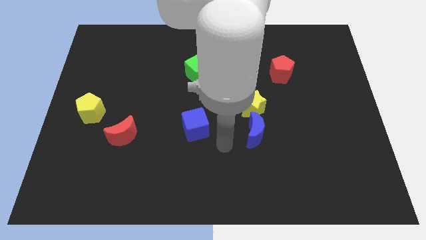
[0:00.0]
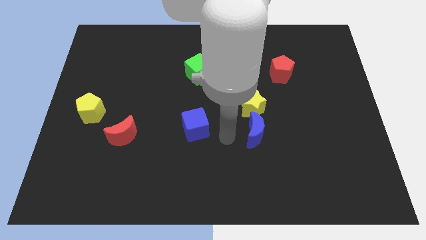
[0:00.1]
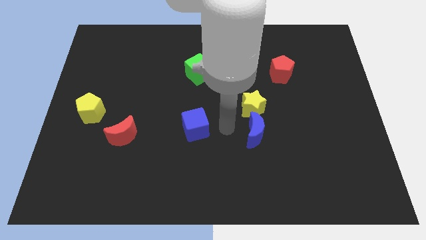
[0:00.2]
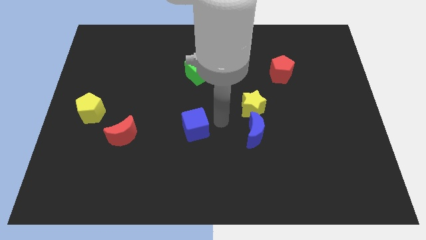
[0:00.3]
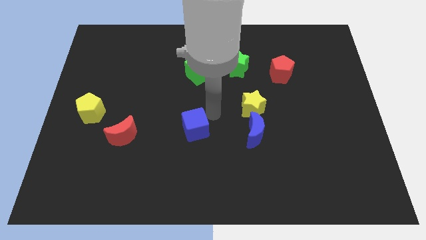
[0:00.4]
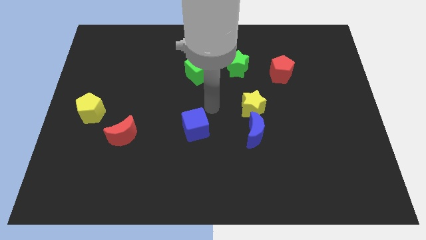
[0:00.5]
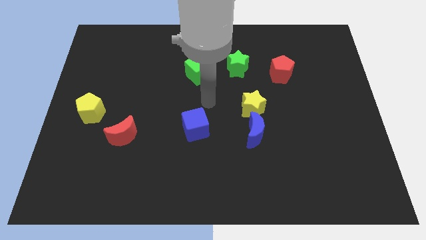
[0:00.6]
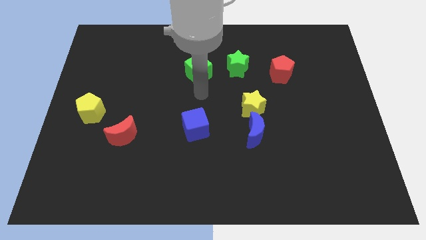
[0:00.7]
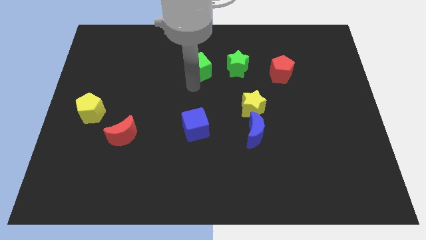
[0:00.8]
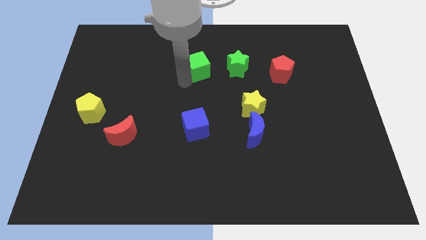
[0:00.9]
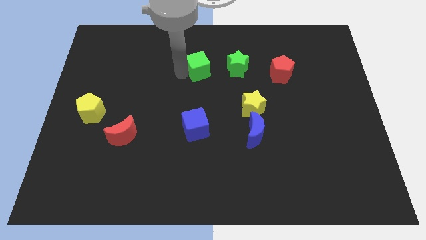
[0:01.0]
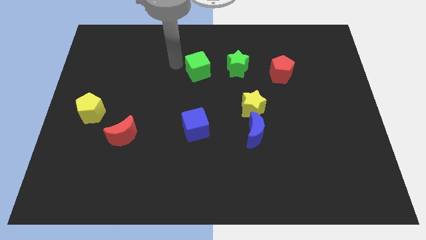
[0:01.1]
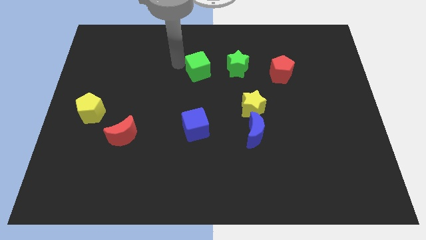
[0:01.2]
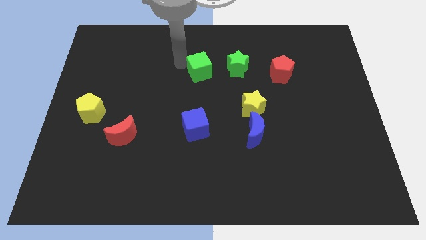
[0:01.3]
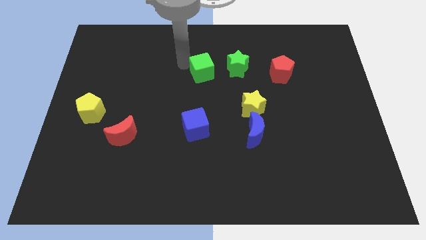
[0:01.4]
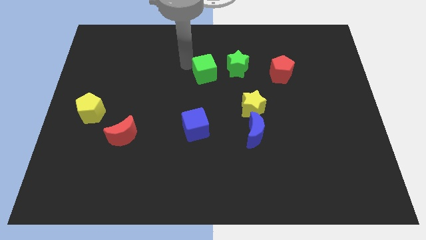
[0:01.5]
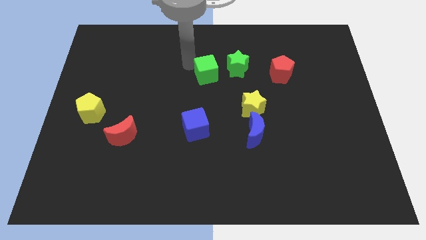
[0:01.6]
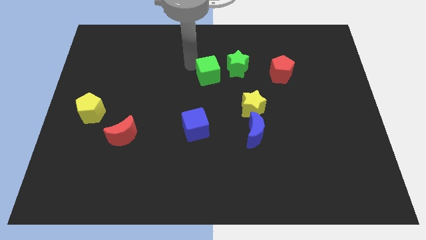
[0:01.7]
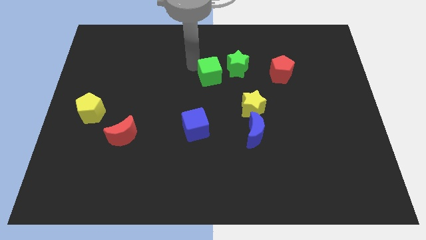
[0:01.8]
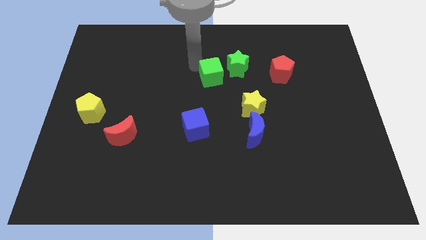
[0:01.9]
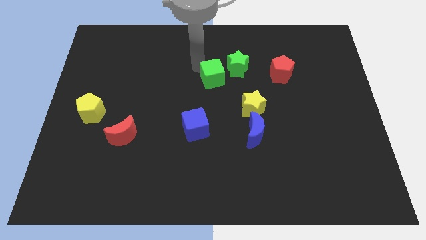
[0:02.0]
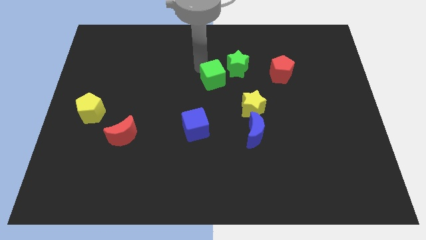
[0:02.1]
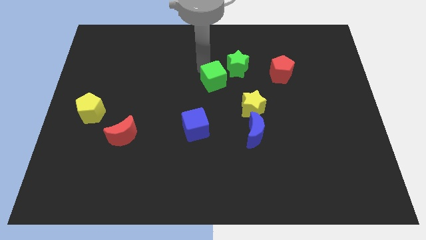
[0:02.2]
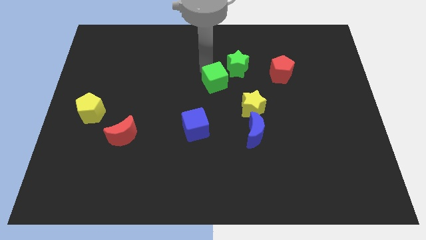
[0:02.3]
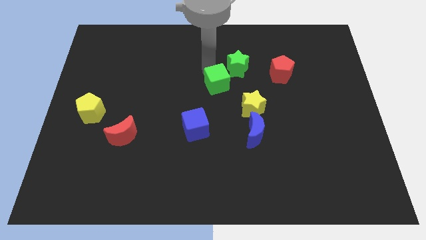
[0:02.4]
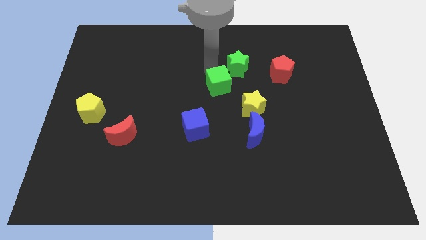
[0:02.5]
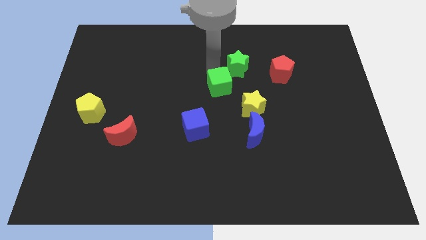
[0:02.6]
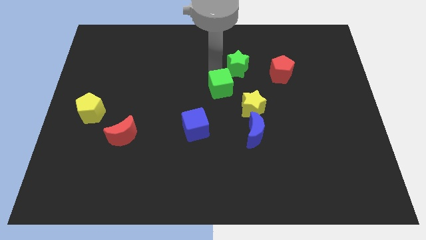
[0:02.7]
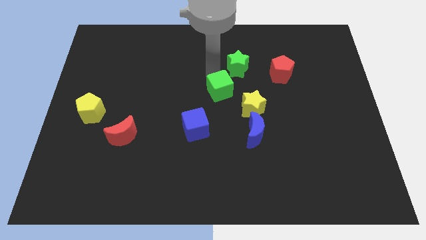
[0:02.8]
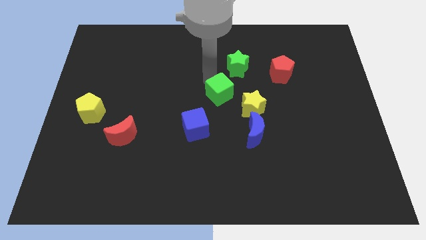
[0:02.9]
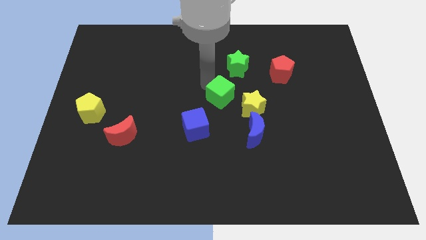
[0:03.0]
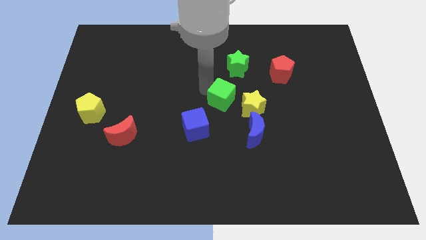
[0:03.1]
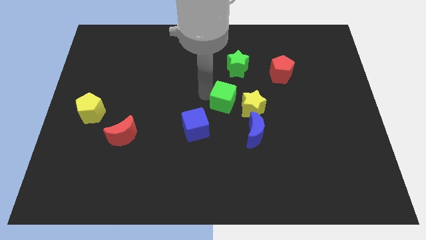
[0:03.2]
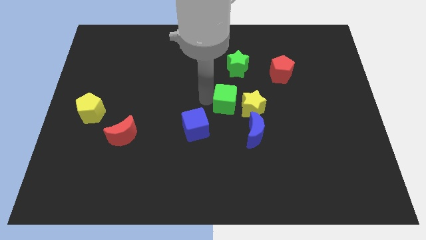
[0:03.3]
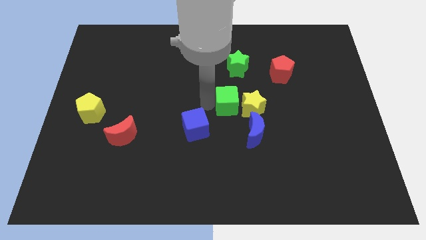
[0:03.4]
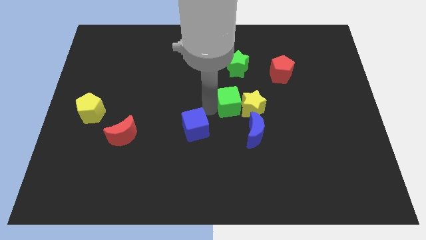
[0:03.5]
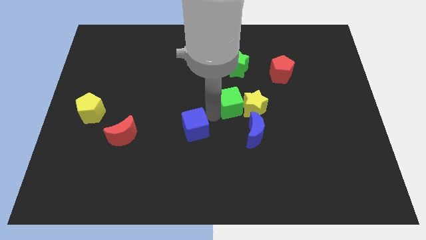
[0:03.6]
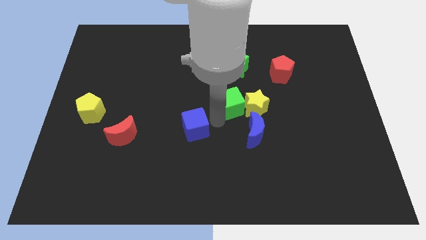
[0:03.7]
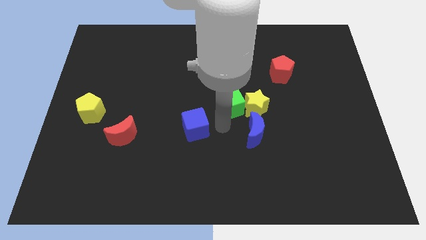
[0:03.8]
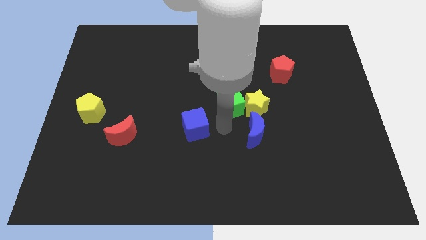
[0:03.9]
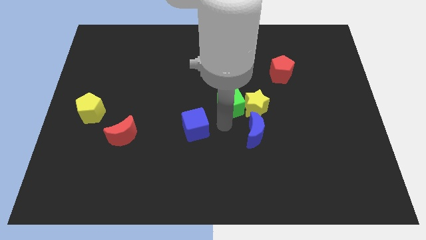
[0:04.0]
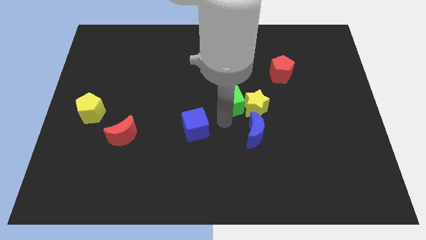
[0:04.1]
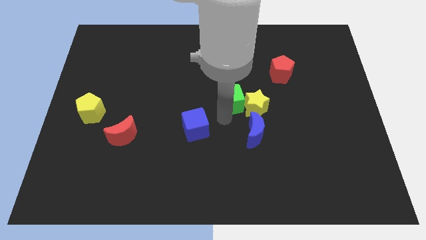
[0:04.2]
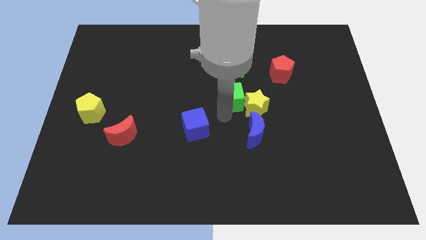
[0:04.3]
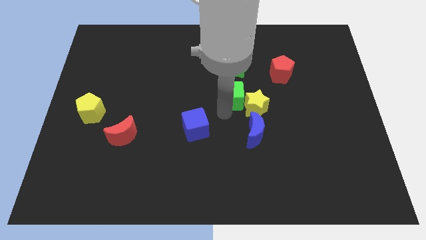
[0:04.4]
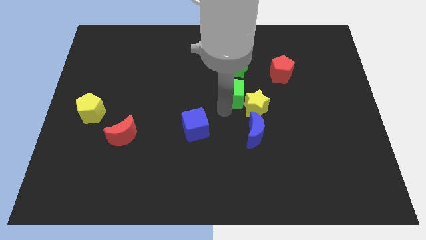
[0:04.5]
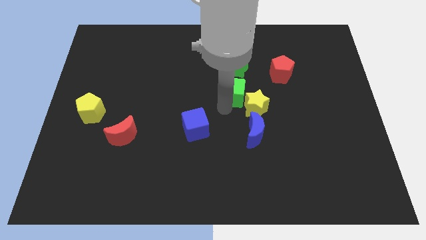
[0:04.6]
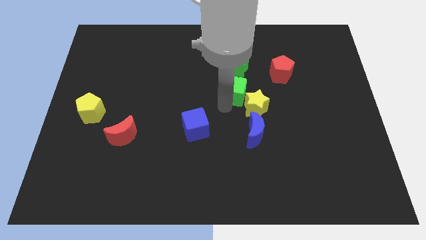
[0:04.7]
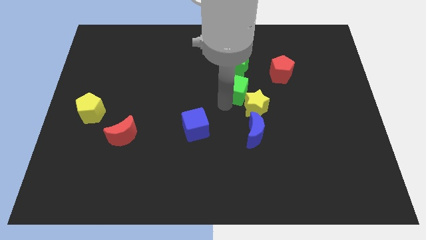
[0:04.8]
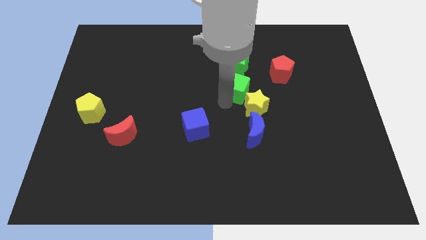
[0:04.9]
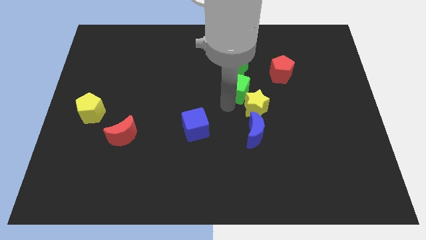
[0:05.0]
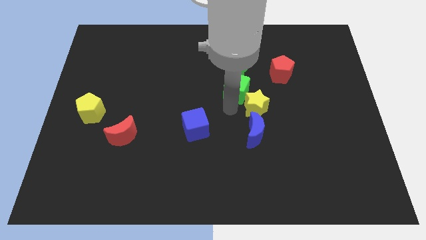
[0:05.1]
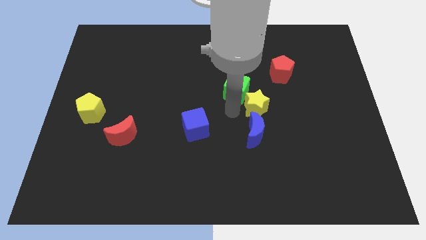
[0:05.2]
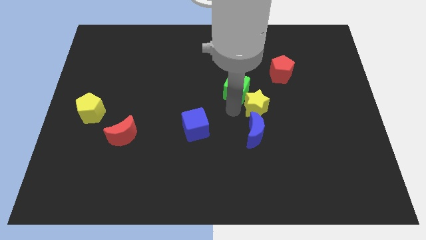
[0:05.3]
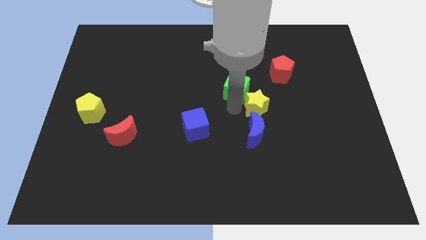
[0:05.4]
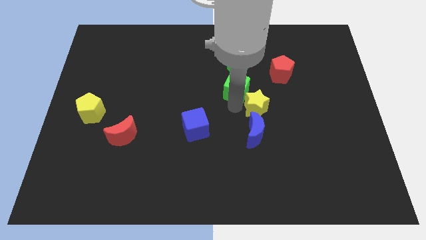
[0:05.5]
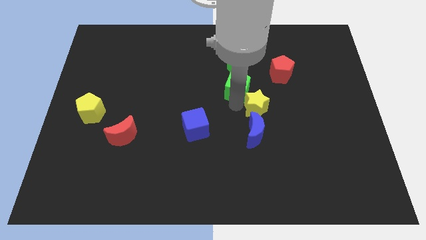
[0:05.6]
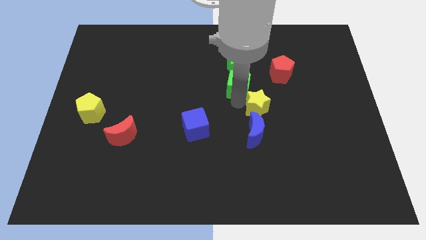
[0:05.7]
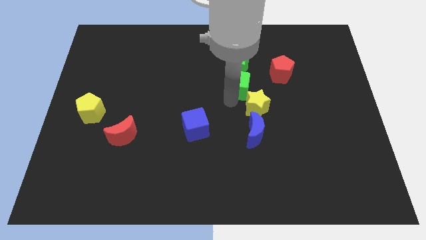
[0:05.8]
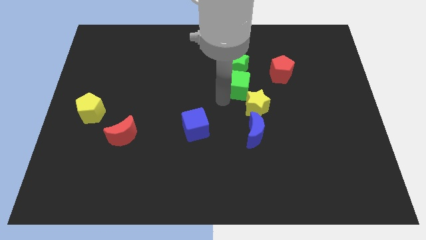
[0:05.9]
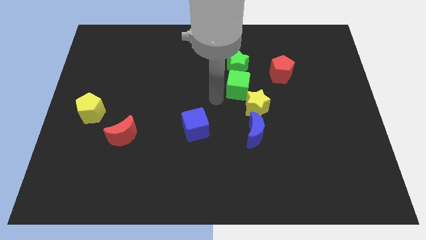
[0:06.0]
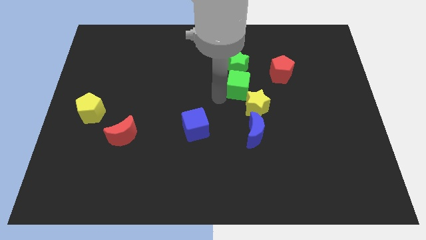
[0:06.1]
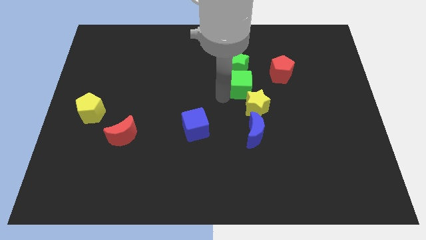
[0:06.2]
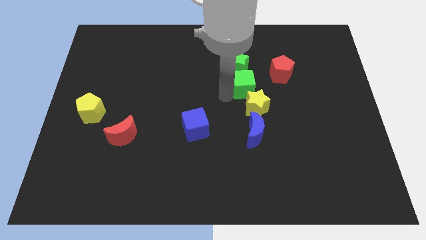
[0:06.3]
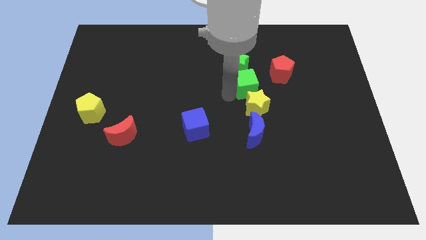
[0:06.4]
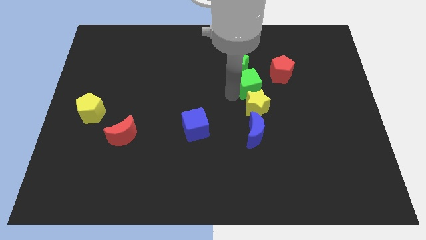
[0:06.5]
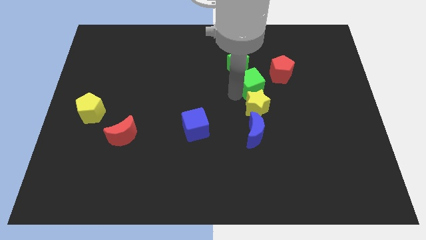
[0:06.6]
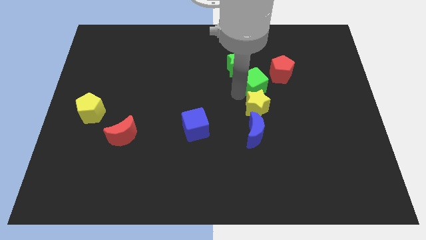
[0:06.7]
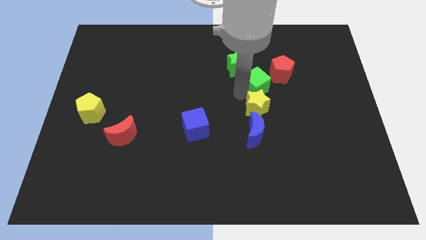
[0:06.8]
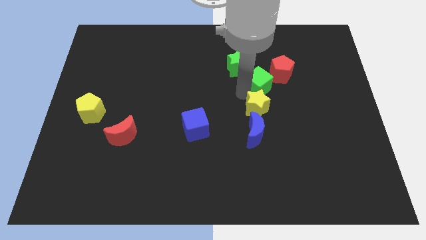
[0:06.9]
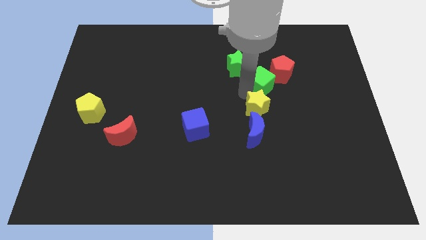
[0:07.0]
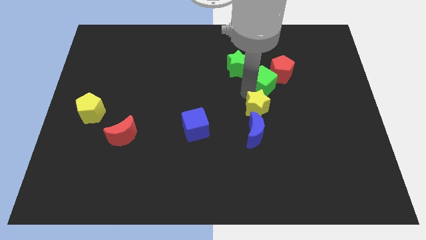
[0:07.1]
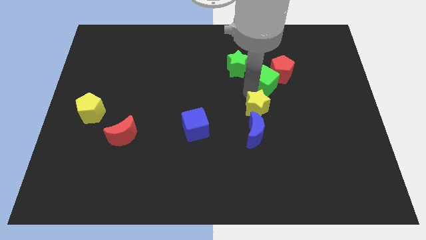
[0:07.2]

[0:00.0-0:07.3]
put the green cube next to the red pentagon
